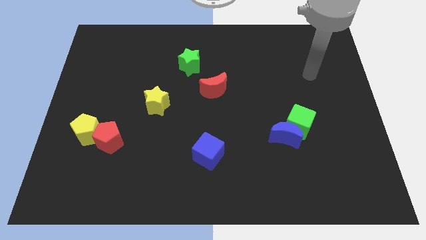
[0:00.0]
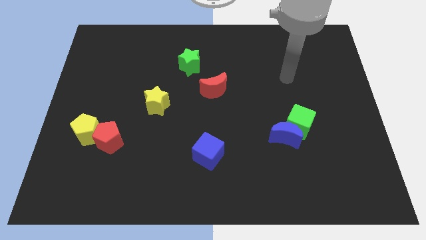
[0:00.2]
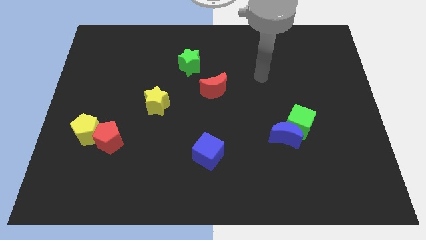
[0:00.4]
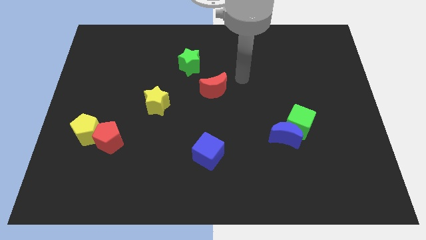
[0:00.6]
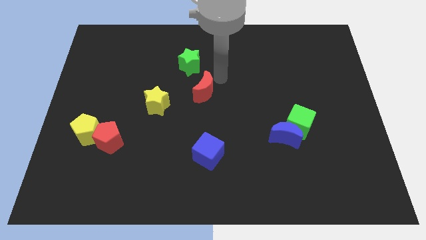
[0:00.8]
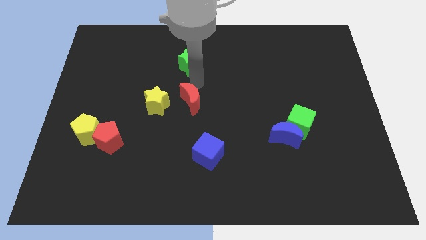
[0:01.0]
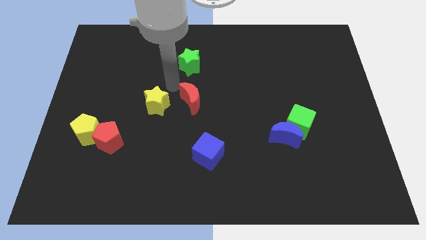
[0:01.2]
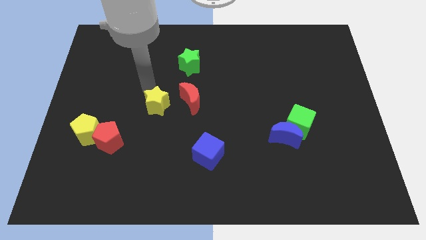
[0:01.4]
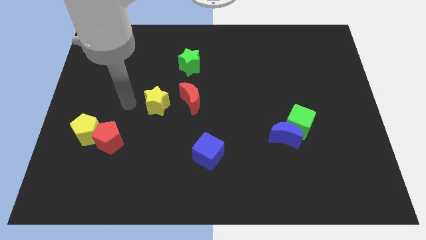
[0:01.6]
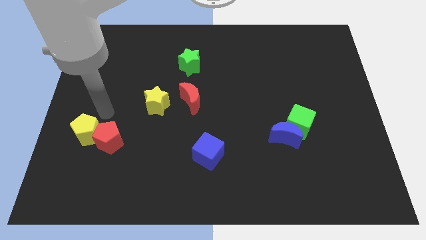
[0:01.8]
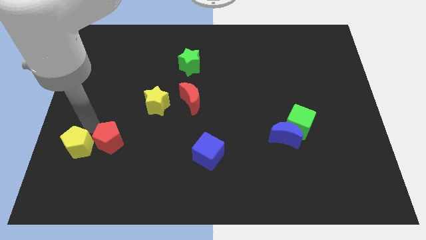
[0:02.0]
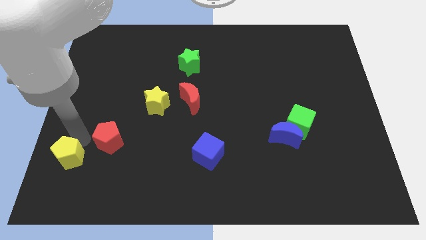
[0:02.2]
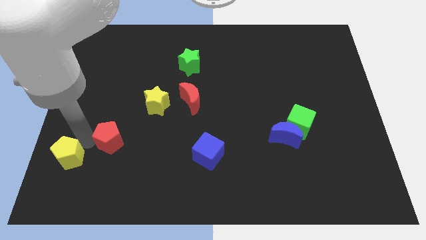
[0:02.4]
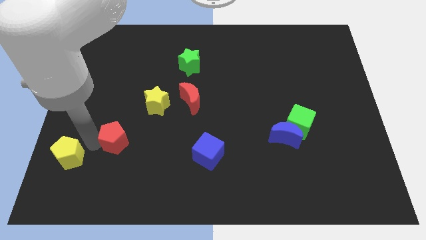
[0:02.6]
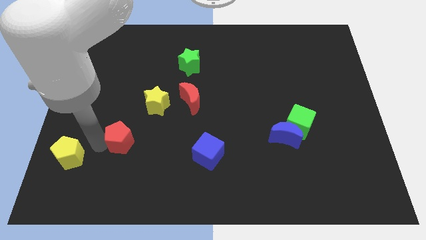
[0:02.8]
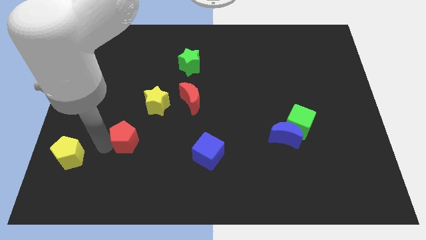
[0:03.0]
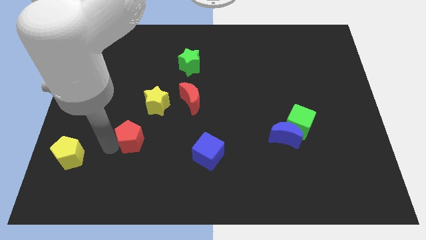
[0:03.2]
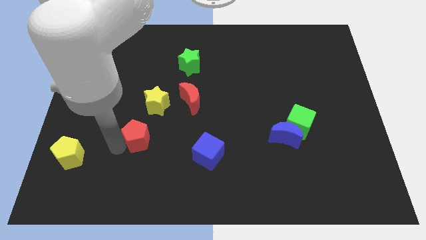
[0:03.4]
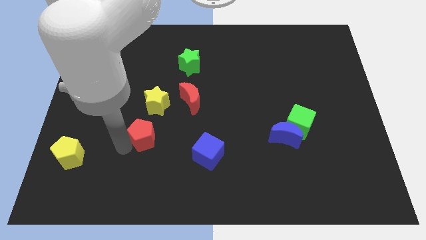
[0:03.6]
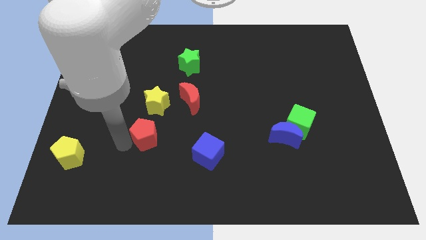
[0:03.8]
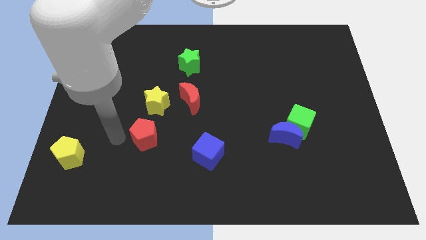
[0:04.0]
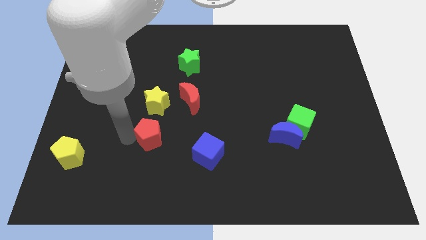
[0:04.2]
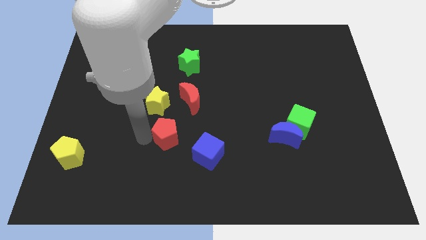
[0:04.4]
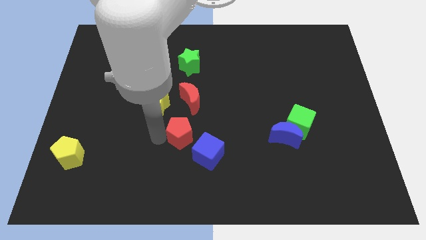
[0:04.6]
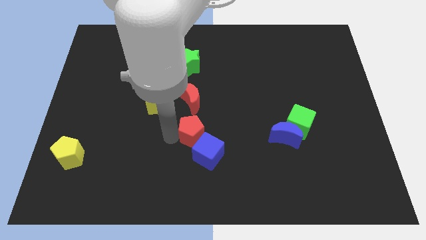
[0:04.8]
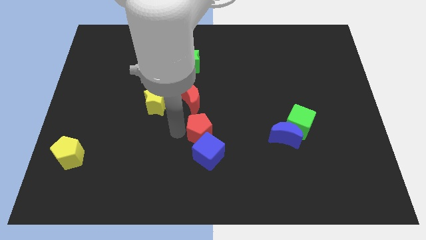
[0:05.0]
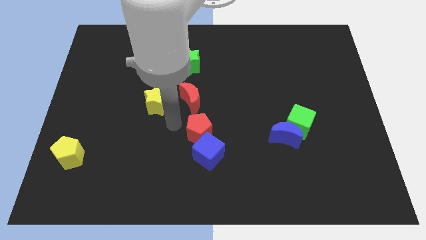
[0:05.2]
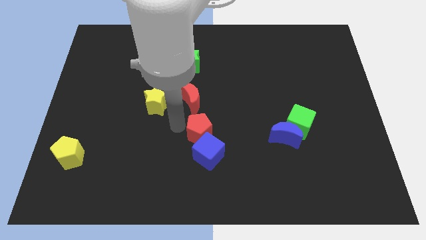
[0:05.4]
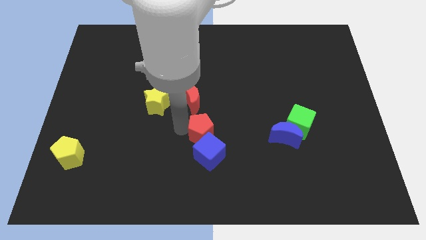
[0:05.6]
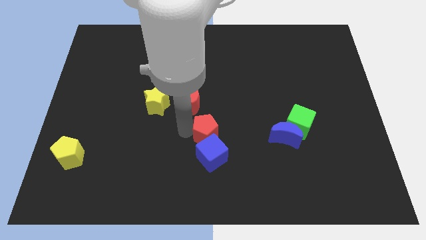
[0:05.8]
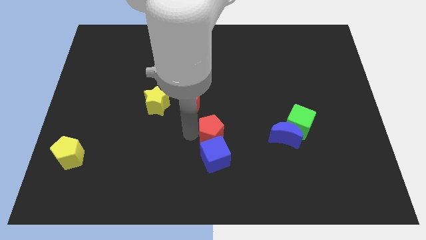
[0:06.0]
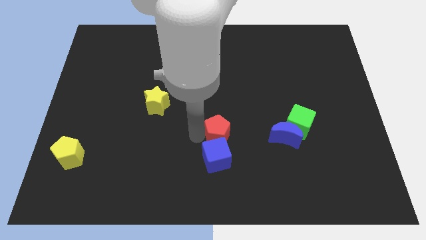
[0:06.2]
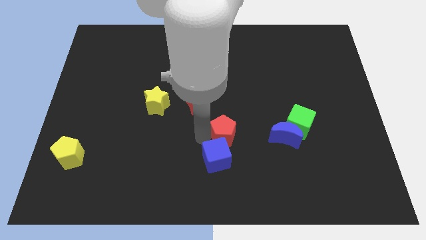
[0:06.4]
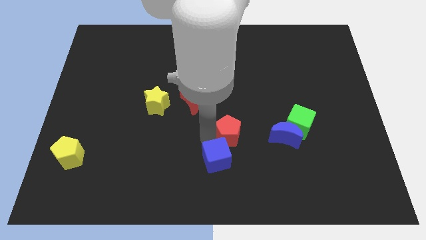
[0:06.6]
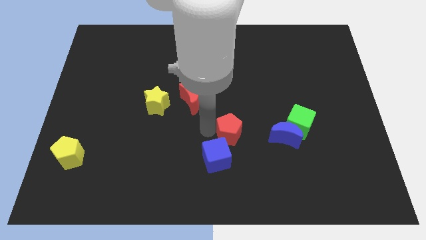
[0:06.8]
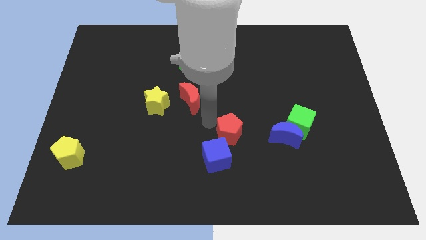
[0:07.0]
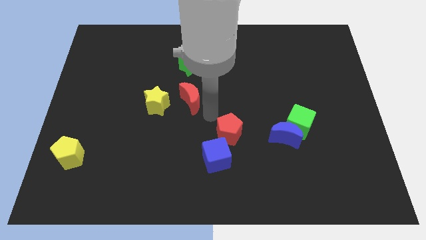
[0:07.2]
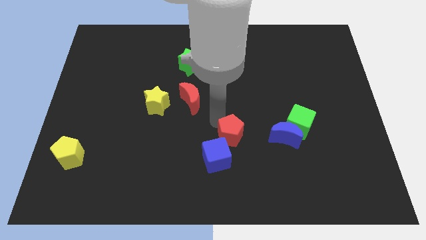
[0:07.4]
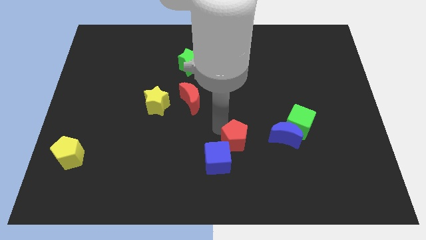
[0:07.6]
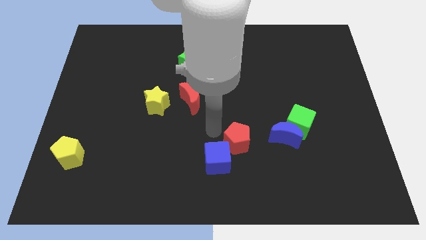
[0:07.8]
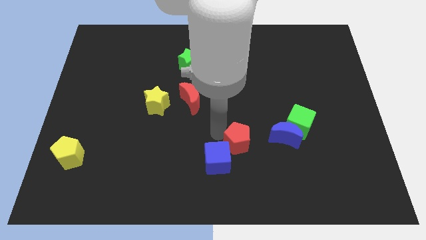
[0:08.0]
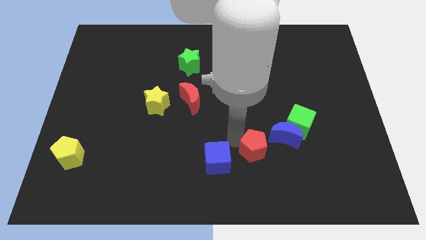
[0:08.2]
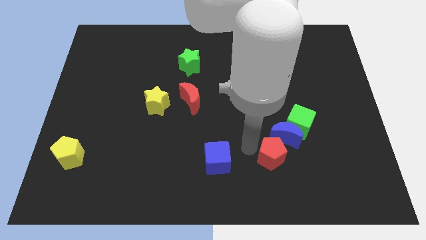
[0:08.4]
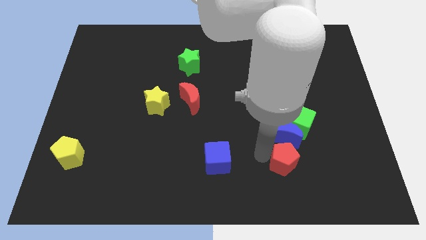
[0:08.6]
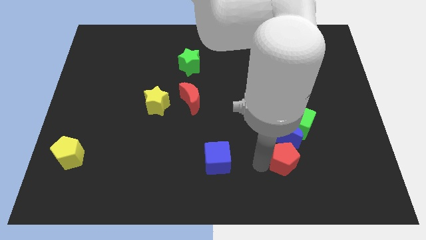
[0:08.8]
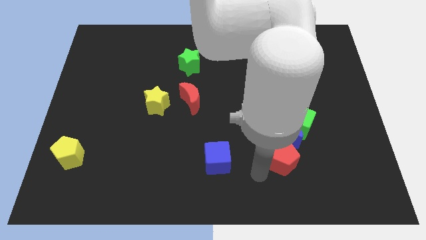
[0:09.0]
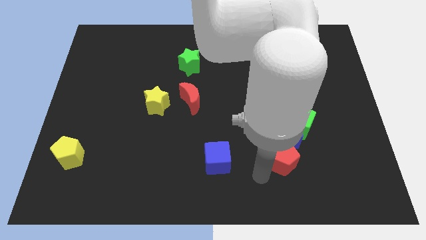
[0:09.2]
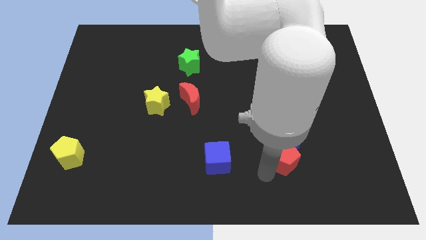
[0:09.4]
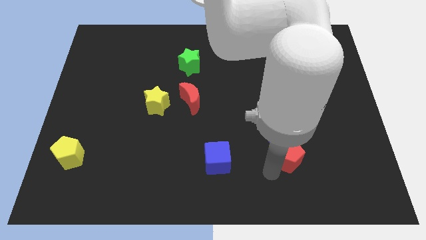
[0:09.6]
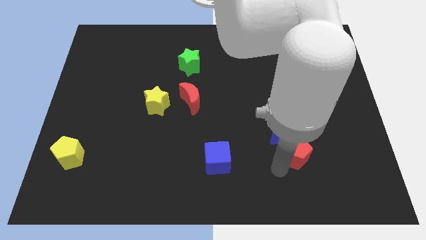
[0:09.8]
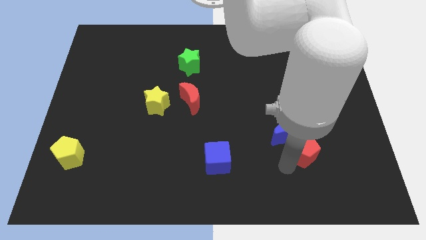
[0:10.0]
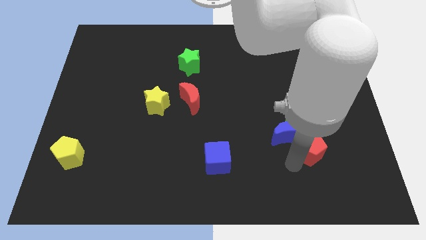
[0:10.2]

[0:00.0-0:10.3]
push the red pentagon to the bottom right of the green cube

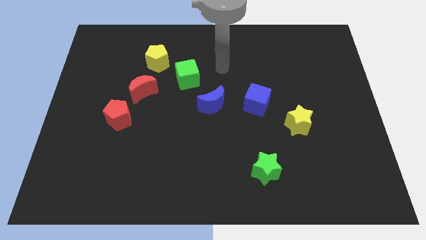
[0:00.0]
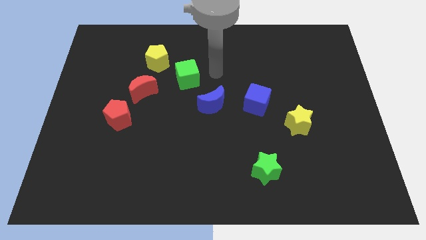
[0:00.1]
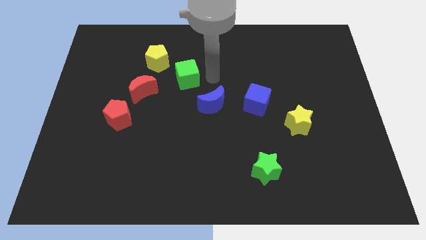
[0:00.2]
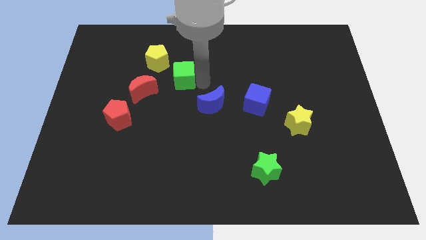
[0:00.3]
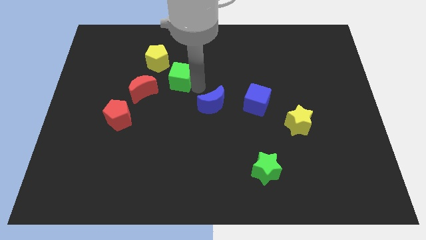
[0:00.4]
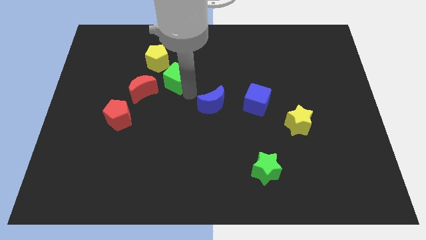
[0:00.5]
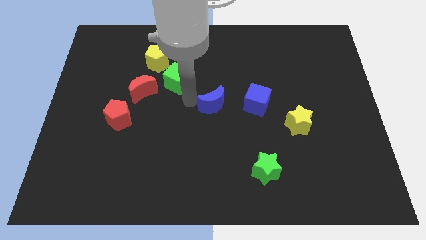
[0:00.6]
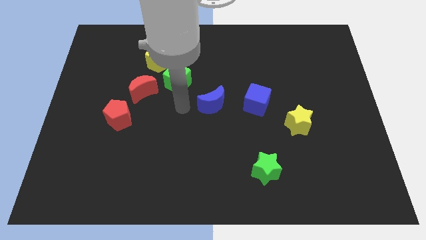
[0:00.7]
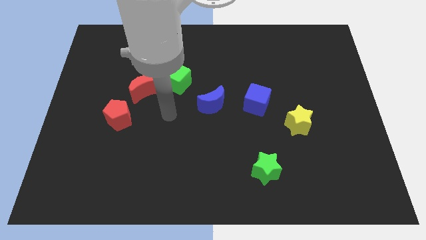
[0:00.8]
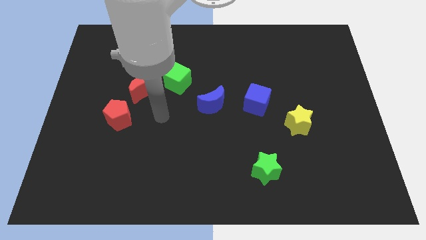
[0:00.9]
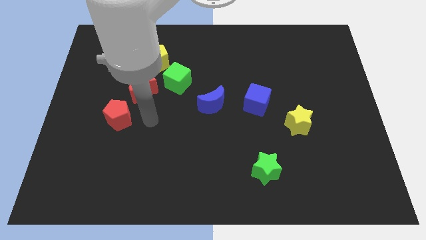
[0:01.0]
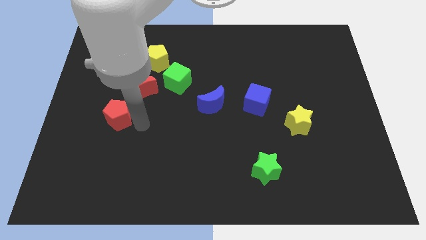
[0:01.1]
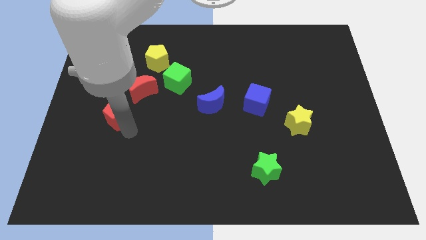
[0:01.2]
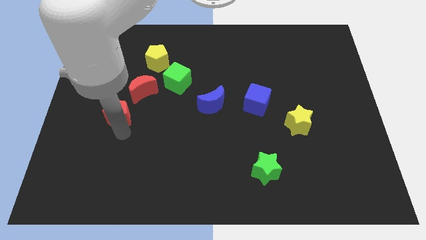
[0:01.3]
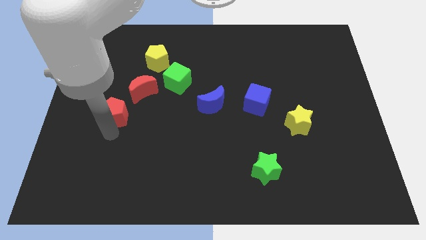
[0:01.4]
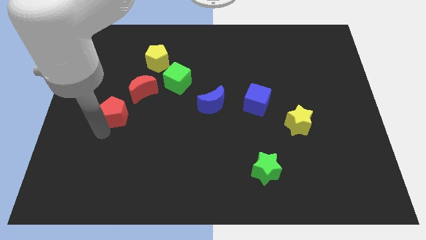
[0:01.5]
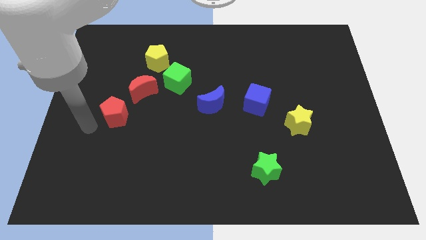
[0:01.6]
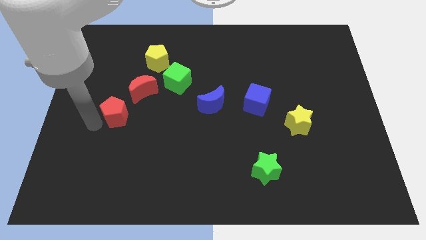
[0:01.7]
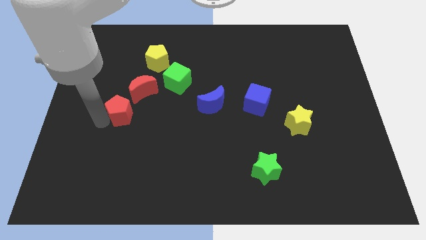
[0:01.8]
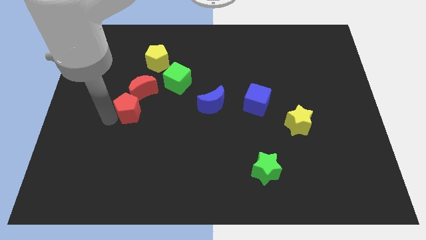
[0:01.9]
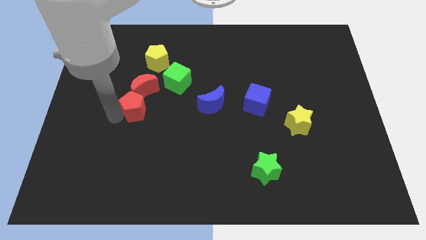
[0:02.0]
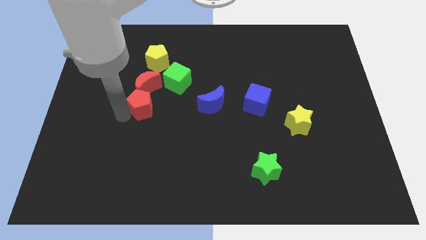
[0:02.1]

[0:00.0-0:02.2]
push the red pentagon to the bottom side of the yellow pentagon

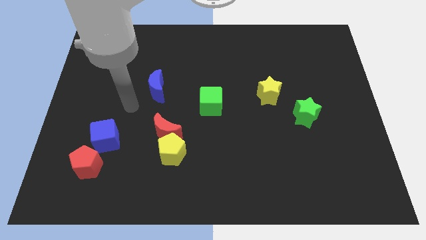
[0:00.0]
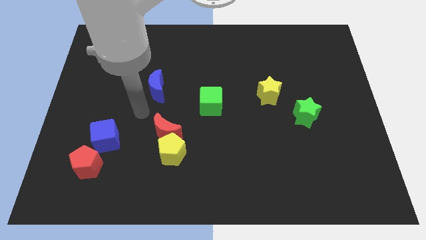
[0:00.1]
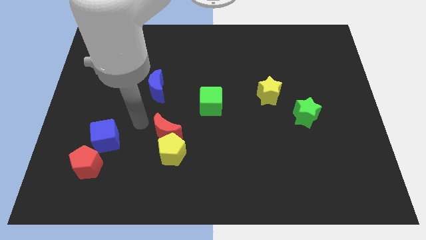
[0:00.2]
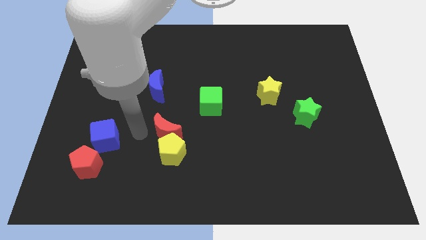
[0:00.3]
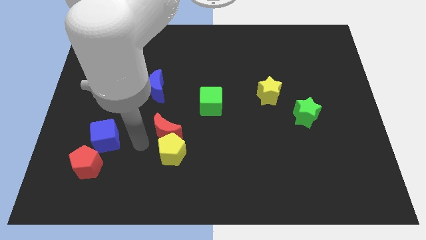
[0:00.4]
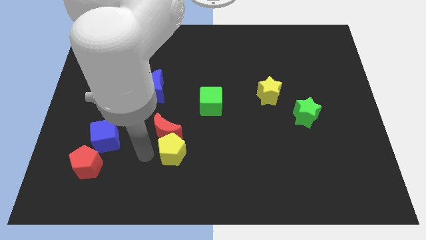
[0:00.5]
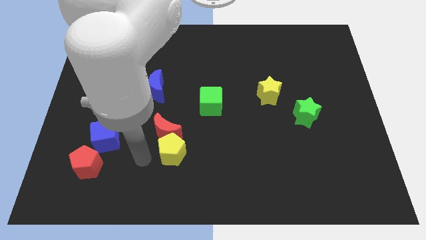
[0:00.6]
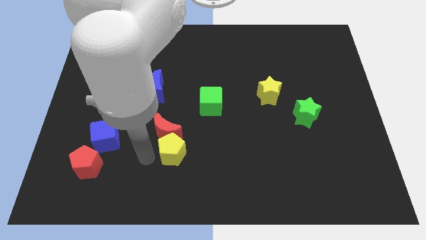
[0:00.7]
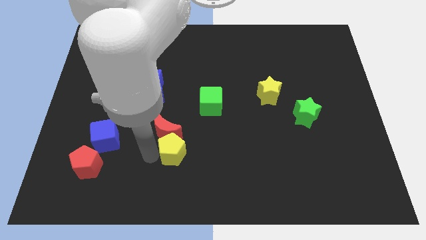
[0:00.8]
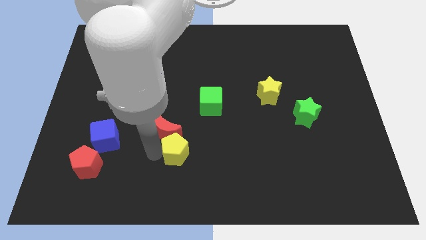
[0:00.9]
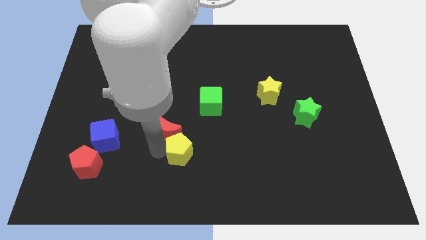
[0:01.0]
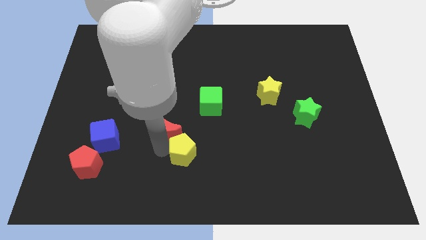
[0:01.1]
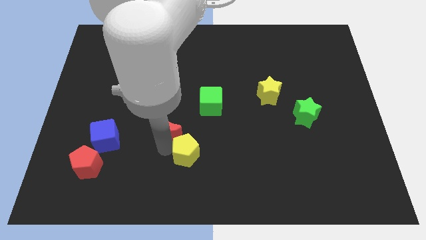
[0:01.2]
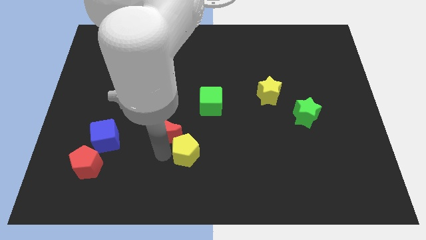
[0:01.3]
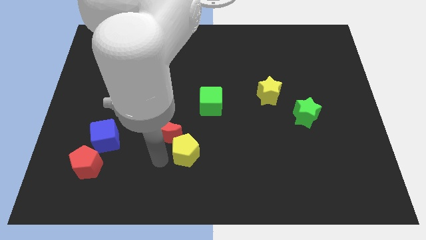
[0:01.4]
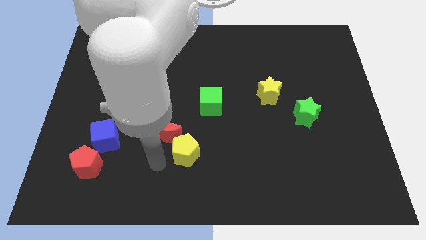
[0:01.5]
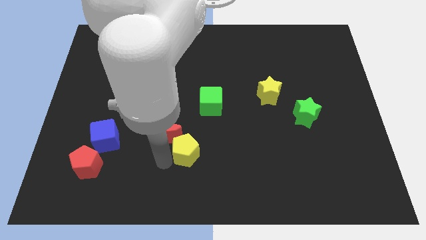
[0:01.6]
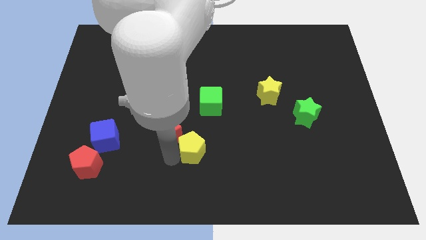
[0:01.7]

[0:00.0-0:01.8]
slide the yellow pentagon to the bottom side of the green cube
